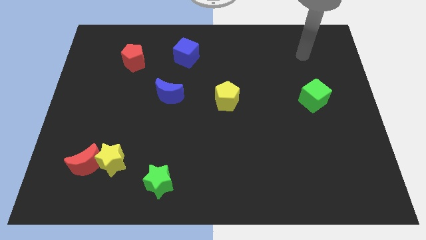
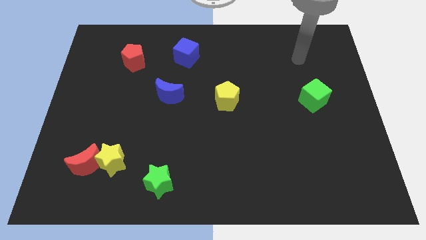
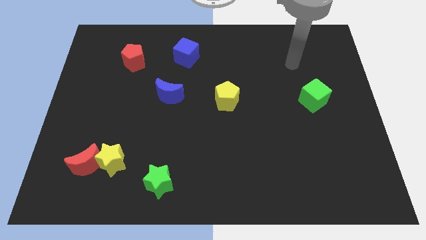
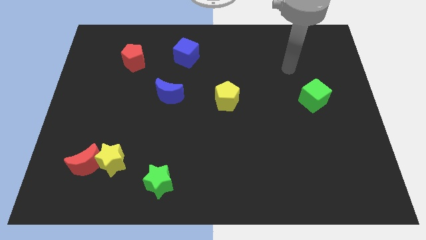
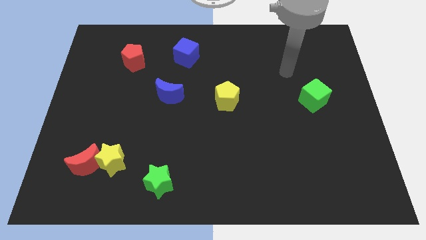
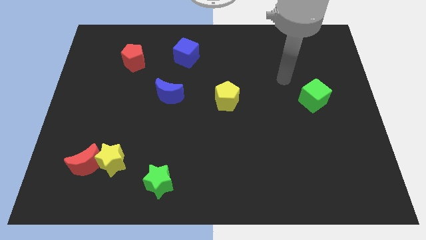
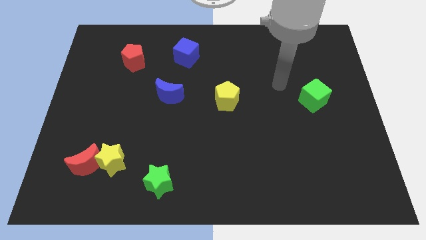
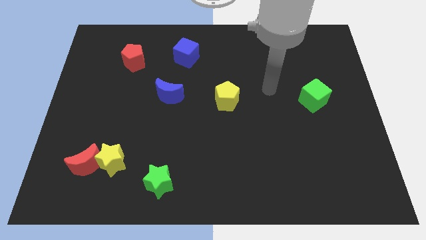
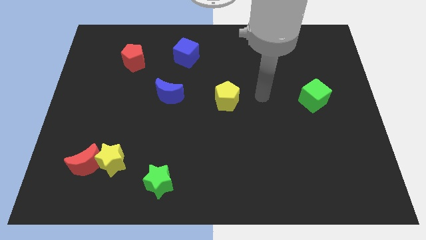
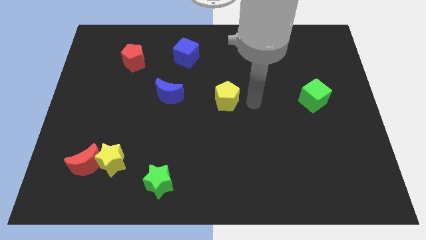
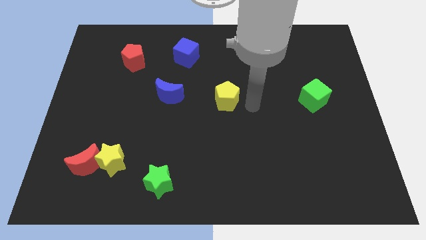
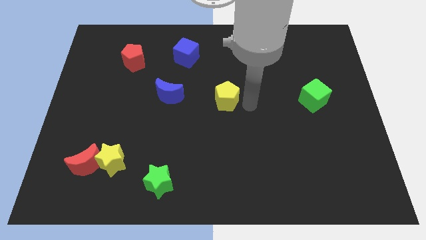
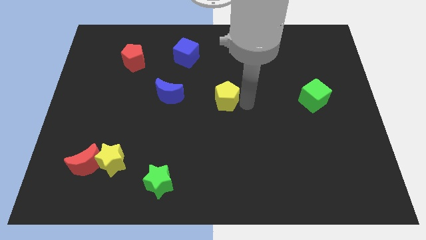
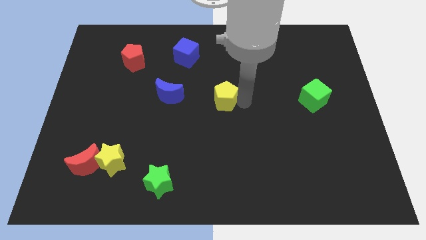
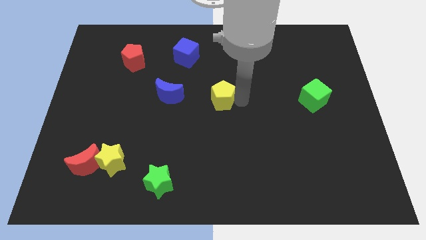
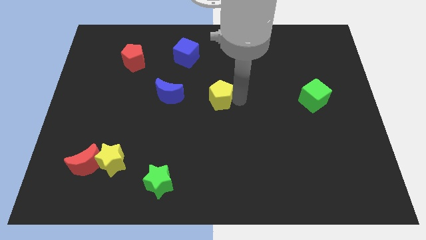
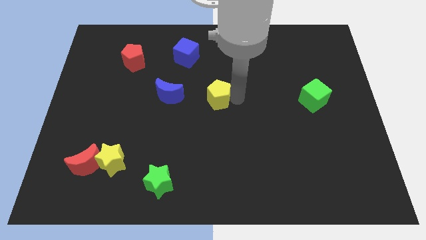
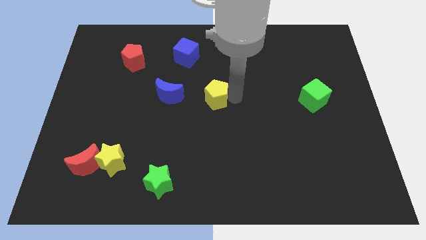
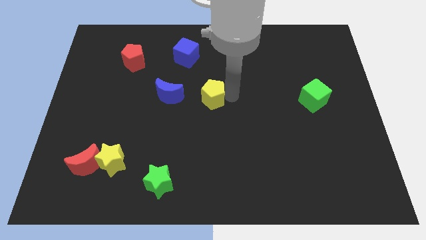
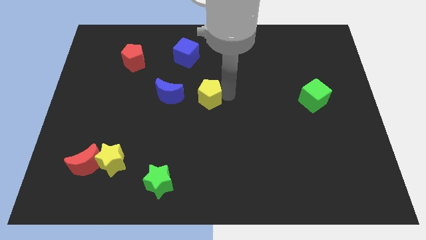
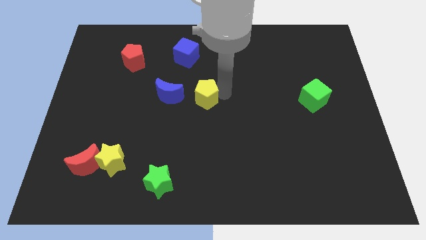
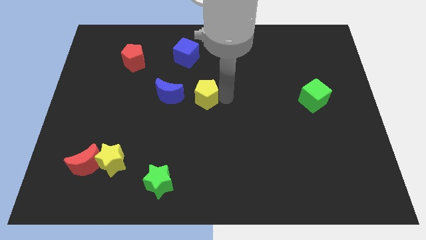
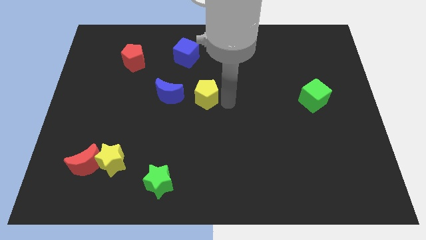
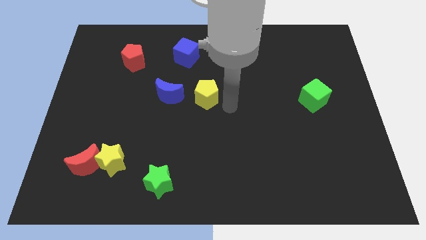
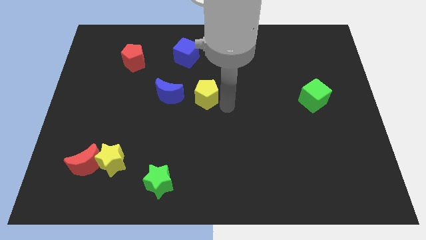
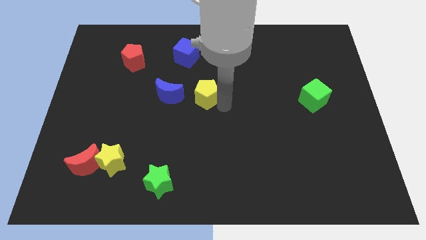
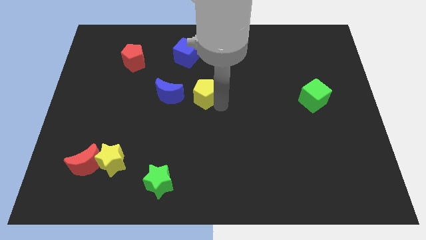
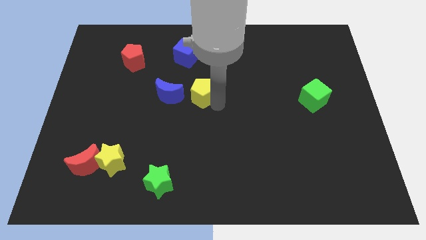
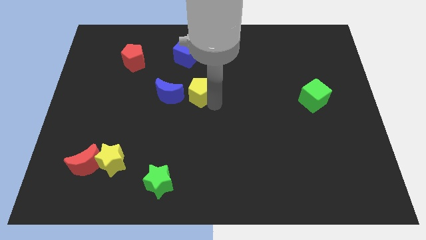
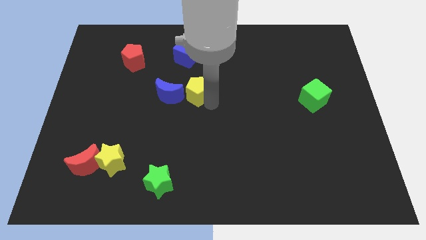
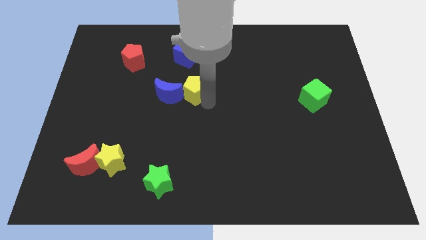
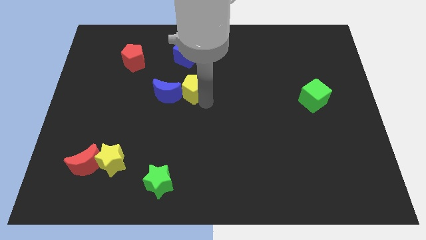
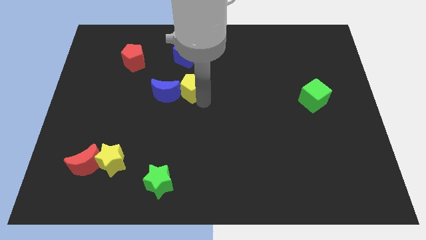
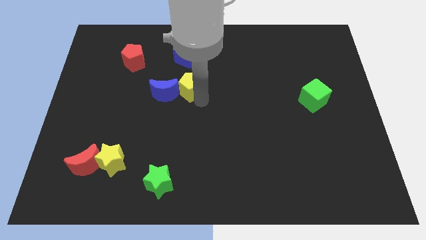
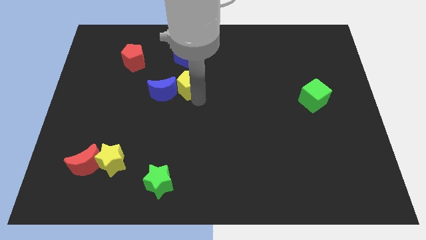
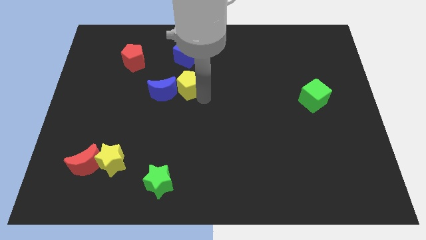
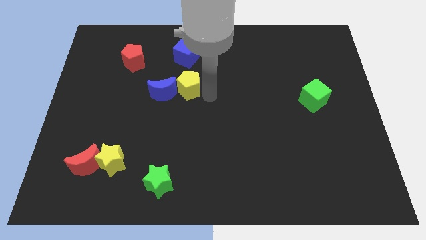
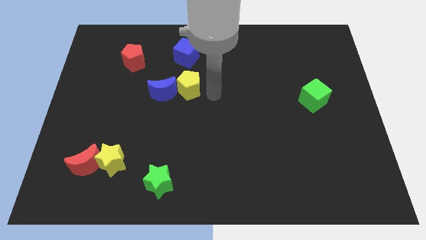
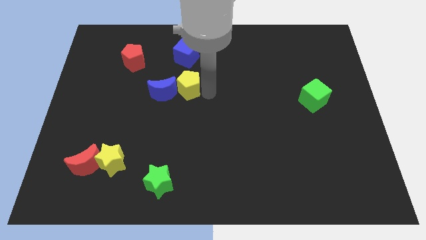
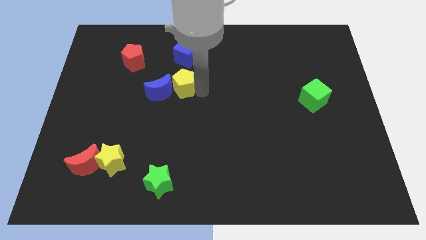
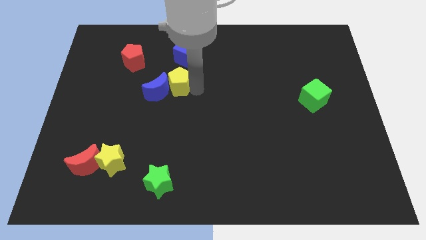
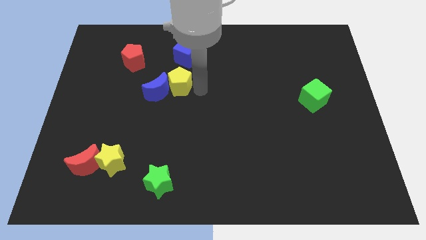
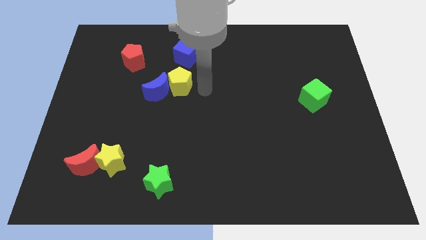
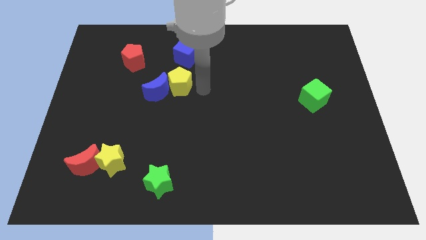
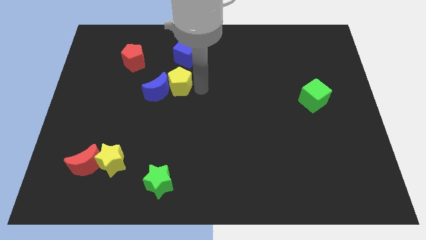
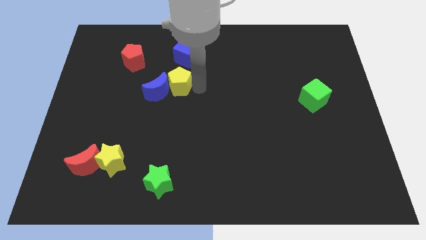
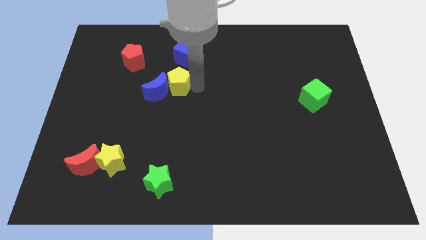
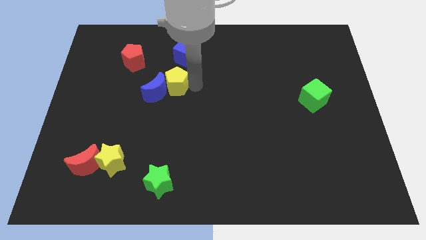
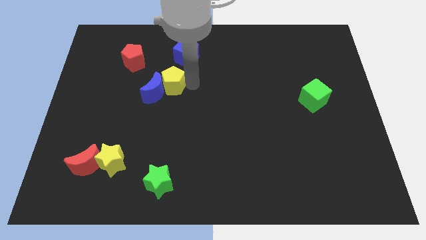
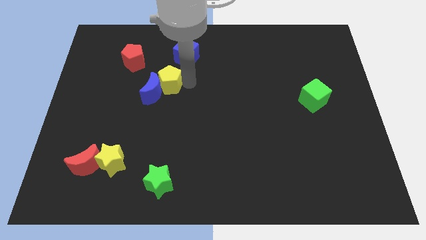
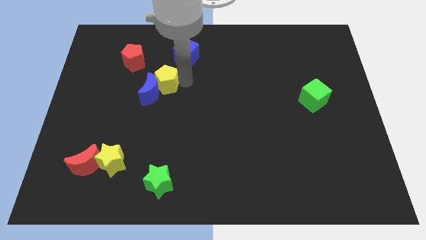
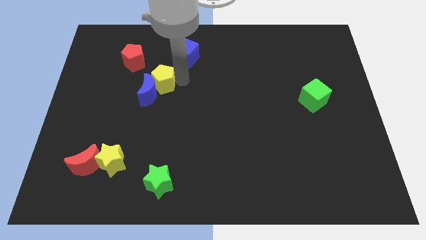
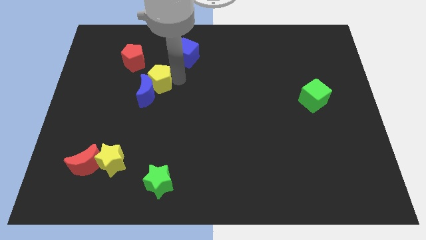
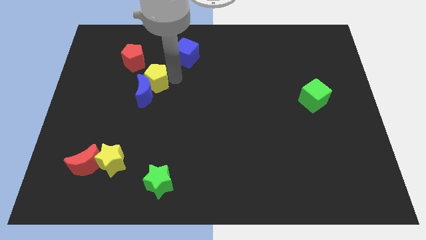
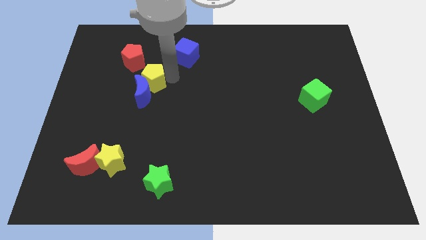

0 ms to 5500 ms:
slide the yellow pentagon to the top left side of the blue moon

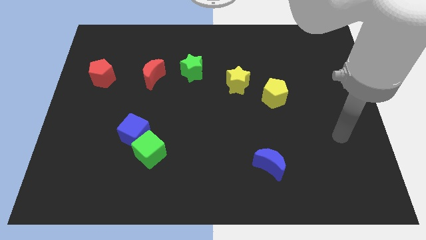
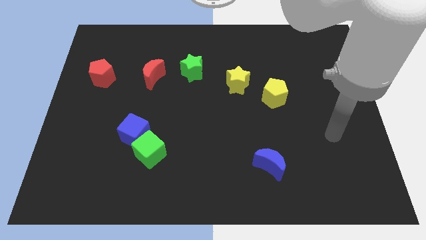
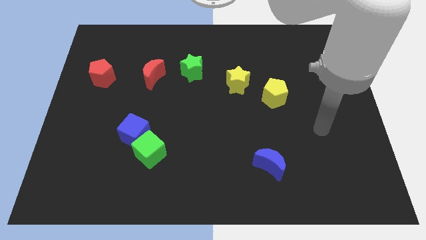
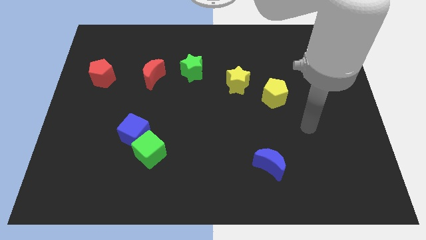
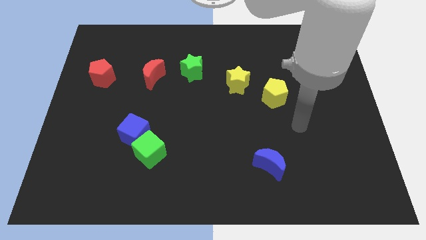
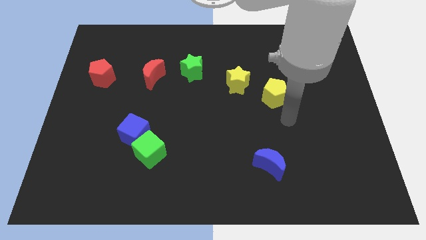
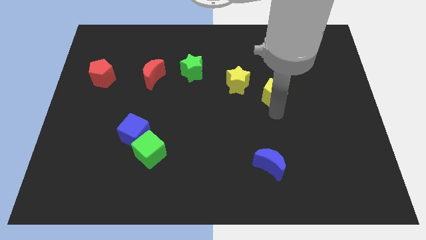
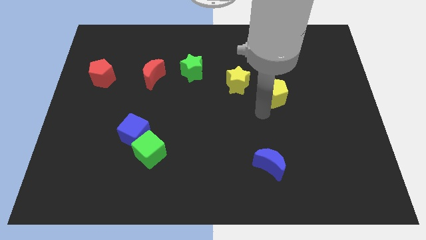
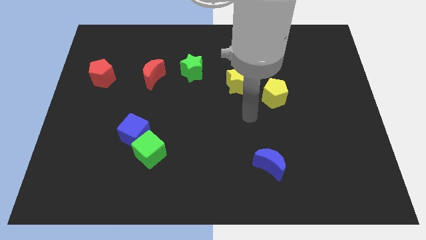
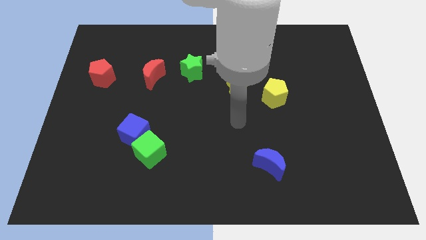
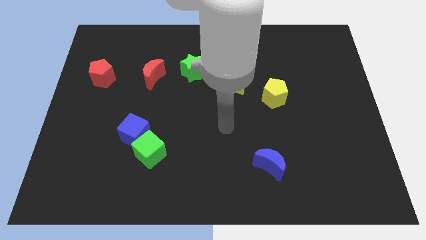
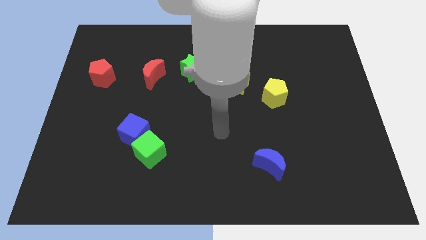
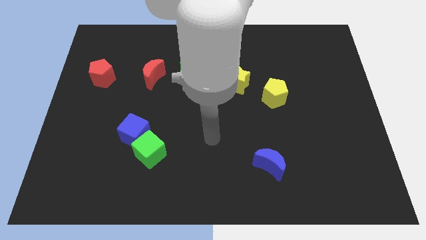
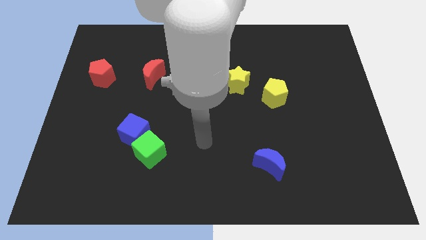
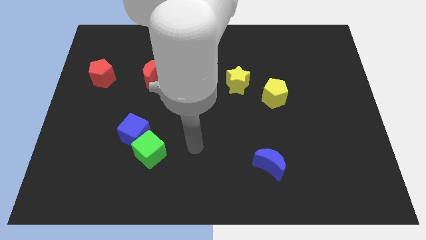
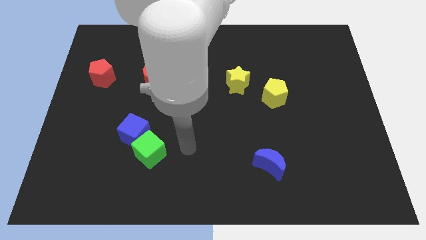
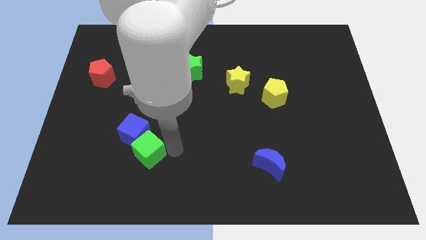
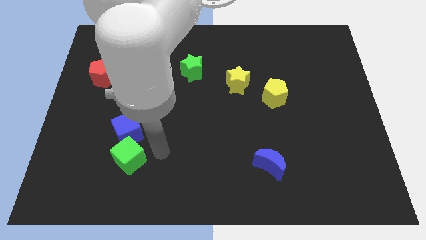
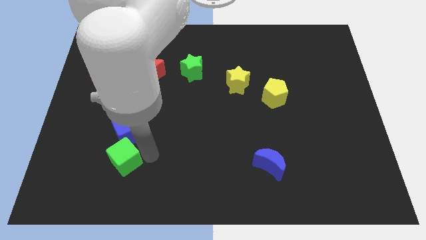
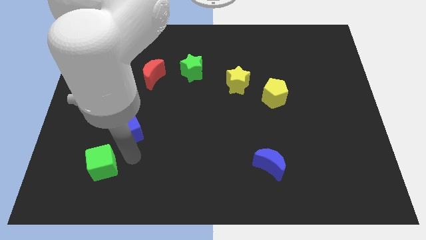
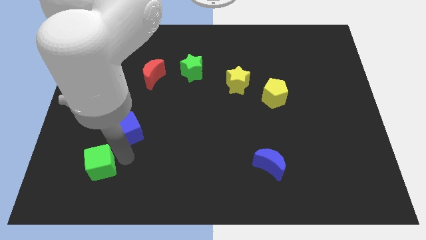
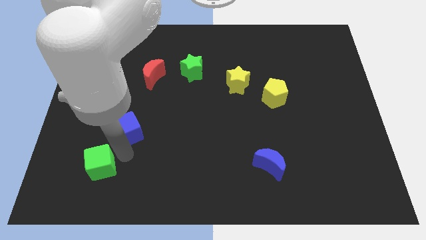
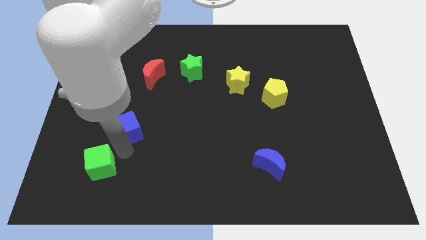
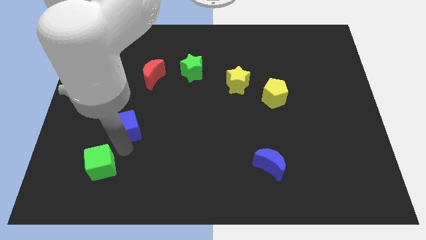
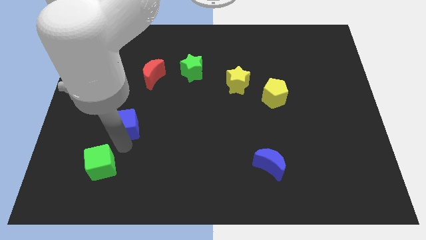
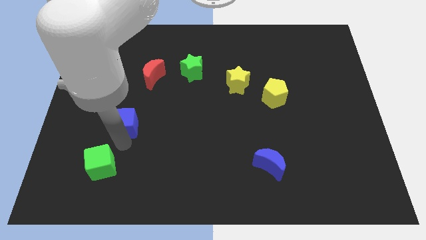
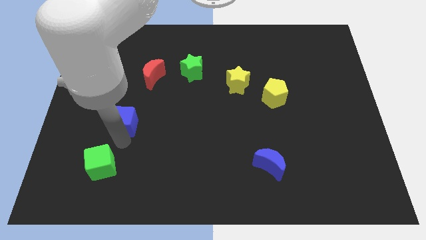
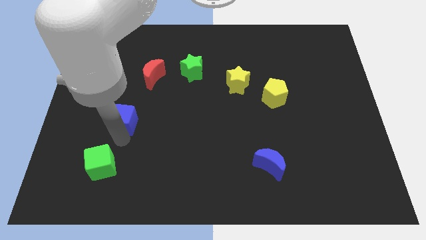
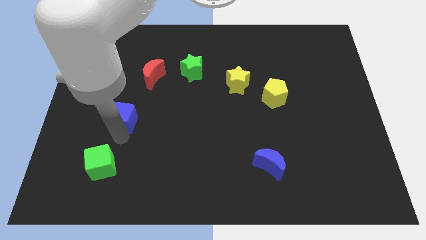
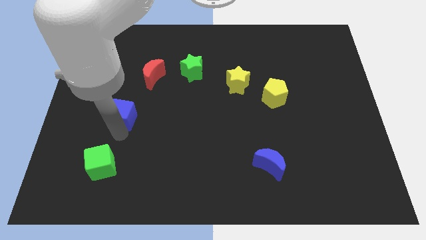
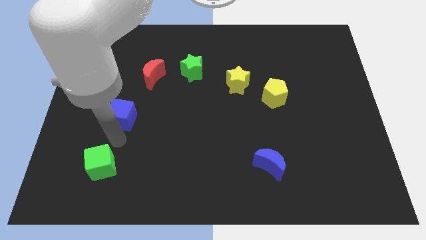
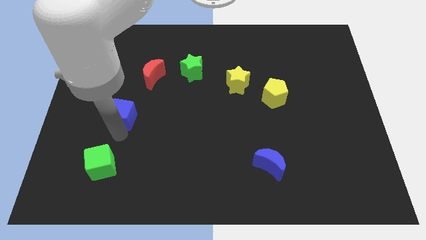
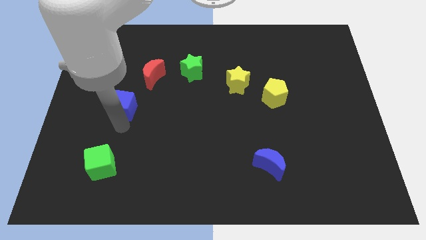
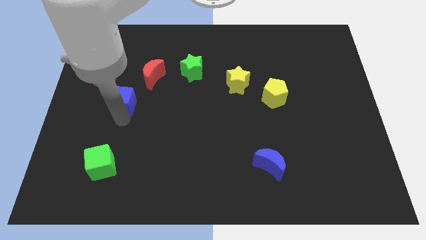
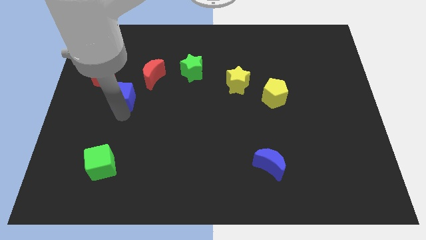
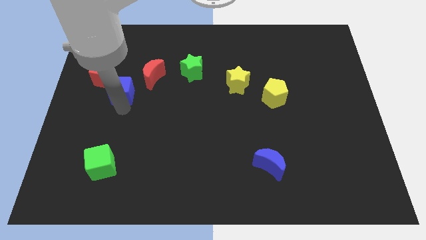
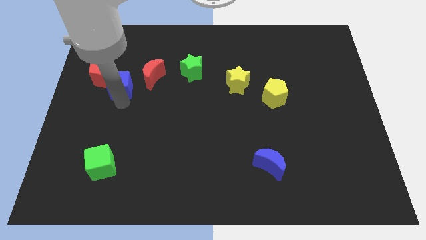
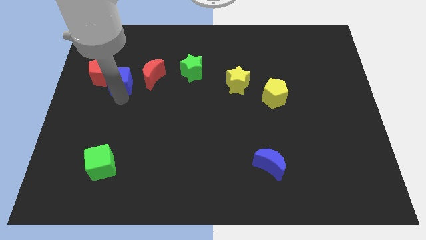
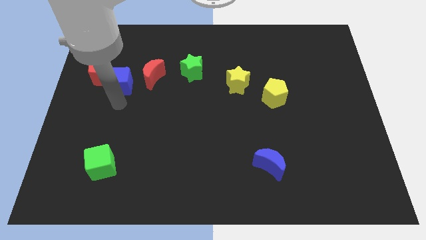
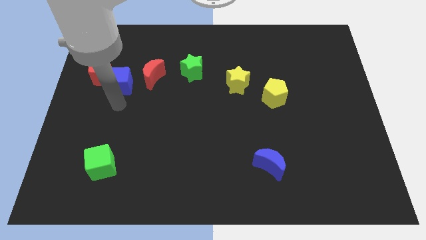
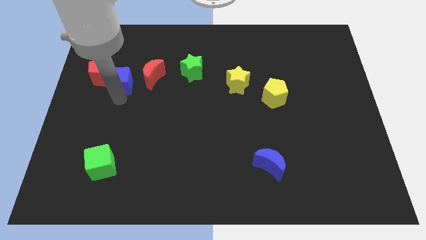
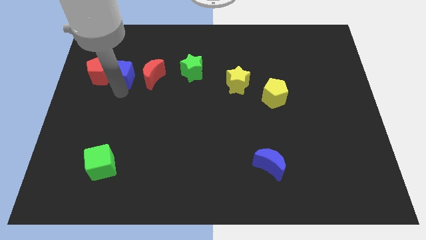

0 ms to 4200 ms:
put the blue cube diagonally up and to the right of the red pentagon
